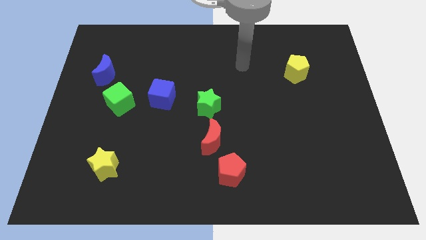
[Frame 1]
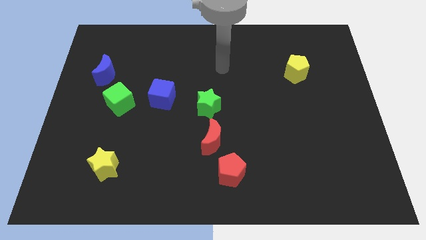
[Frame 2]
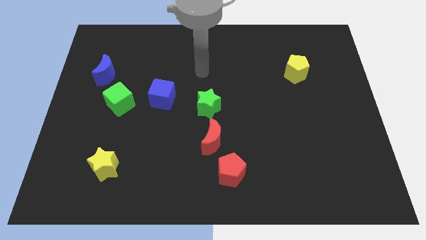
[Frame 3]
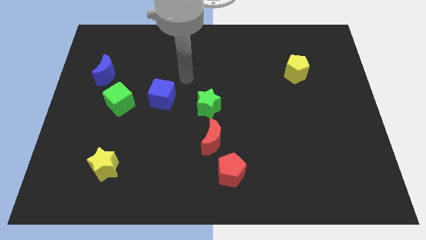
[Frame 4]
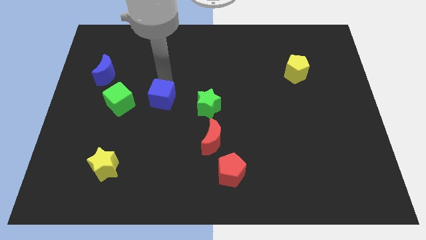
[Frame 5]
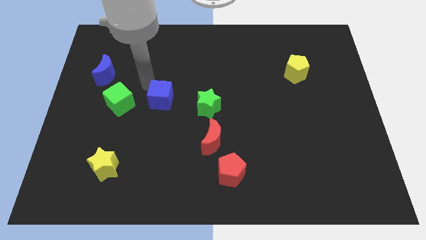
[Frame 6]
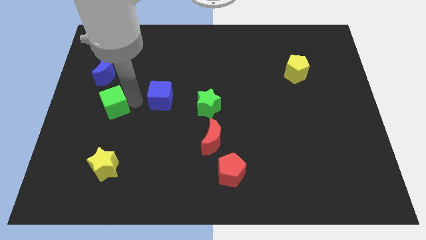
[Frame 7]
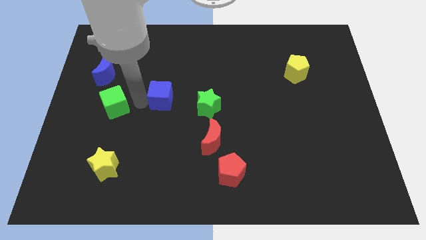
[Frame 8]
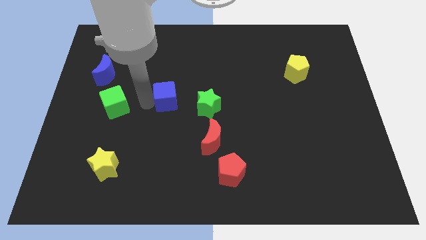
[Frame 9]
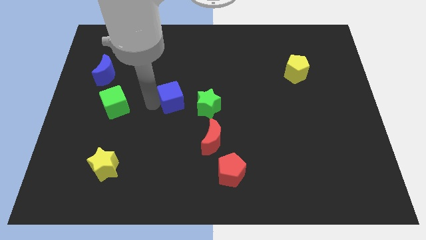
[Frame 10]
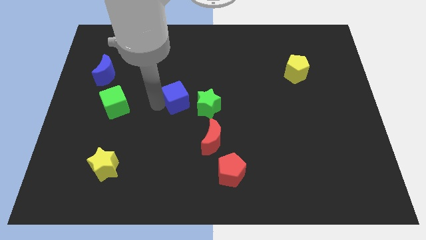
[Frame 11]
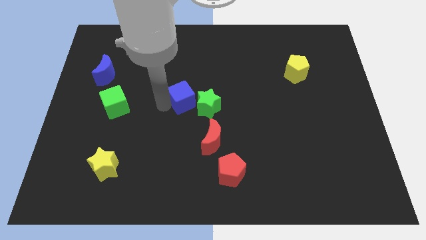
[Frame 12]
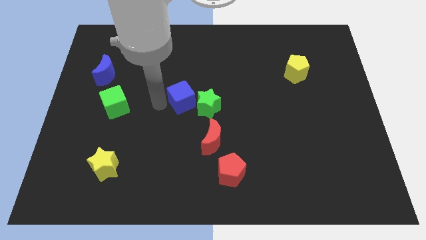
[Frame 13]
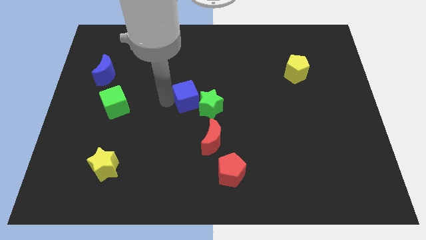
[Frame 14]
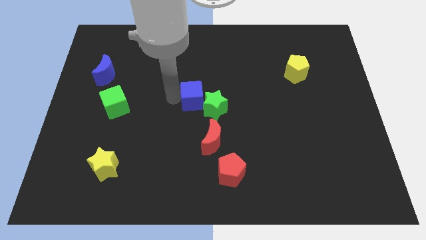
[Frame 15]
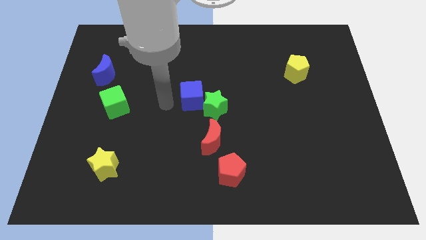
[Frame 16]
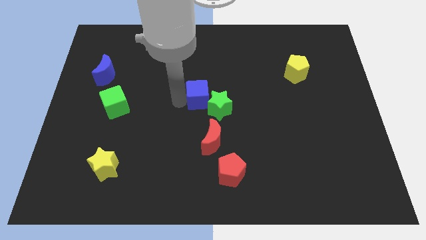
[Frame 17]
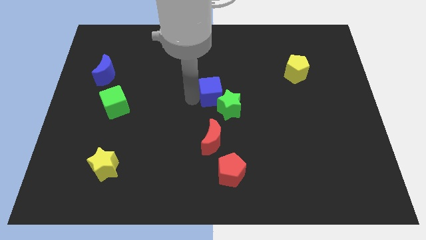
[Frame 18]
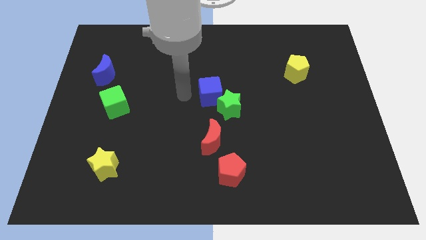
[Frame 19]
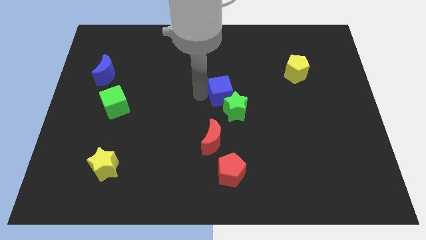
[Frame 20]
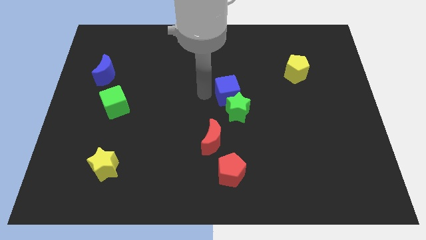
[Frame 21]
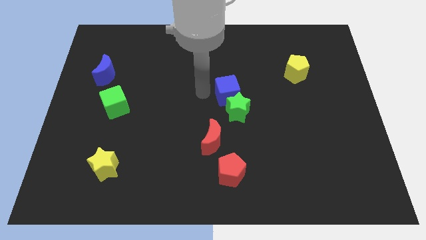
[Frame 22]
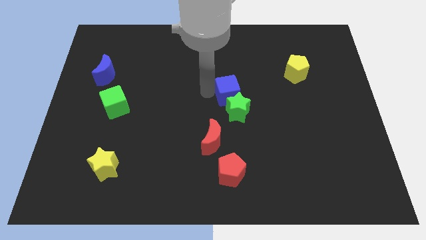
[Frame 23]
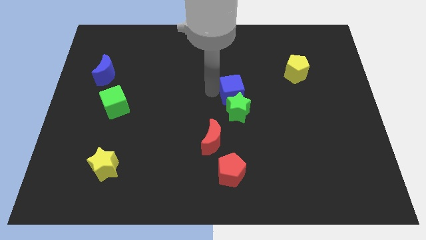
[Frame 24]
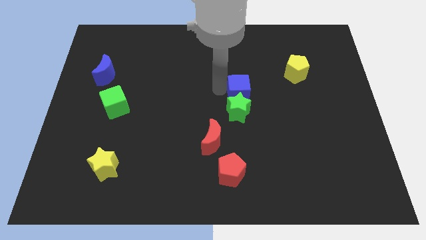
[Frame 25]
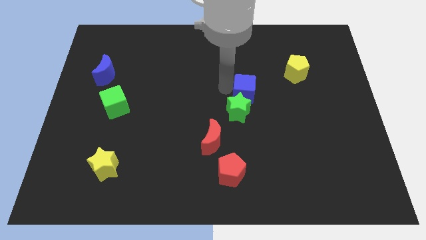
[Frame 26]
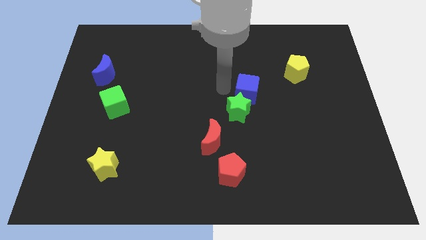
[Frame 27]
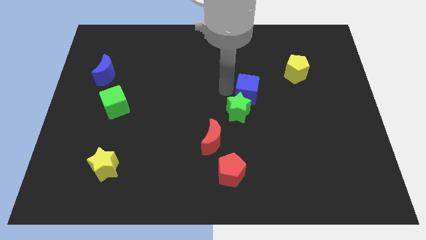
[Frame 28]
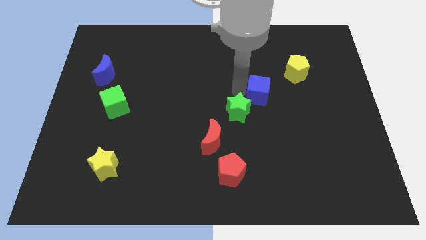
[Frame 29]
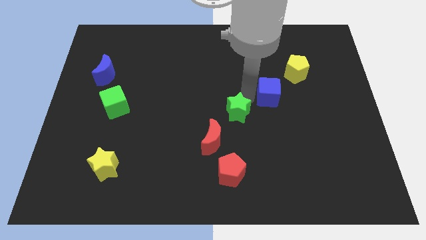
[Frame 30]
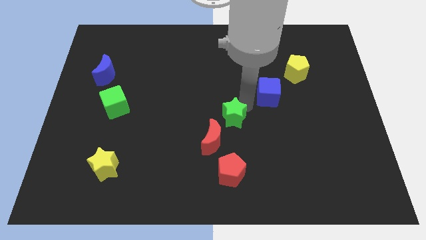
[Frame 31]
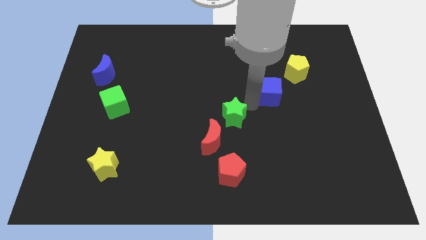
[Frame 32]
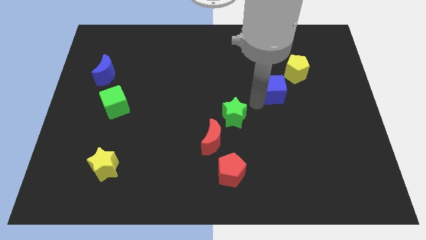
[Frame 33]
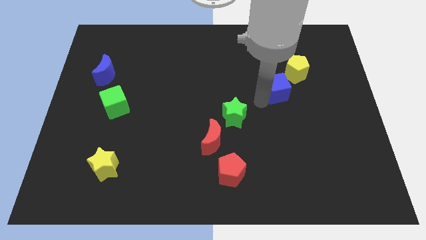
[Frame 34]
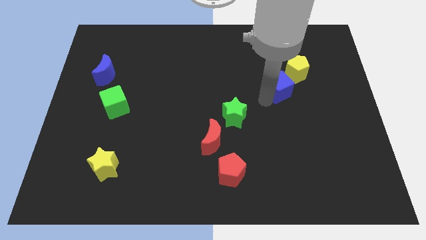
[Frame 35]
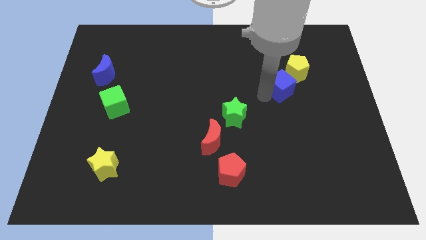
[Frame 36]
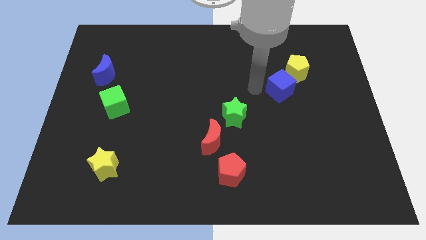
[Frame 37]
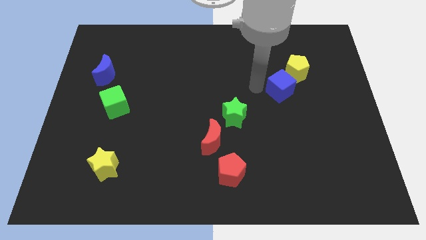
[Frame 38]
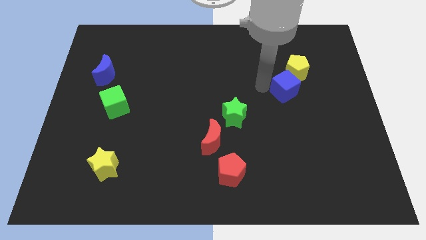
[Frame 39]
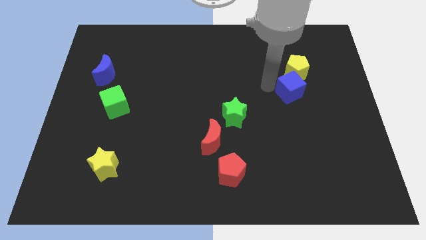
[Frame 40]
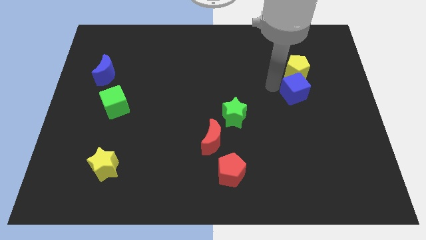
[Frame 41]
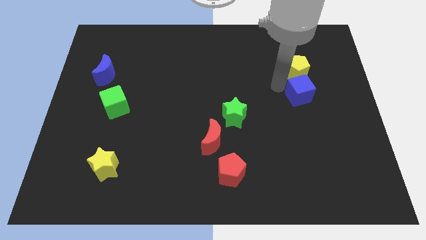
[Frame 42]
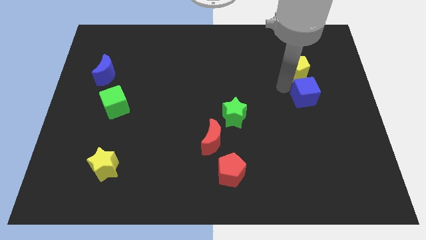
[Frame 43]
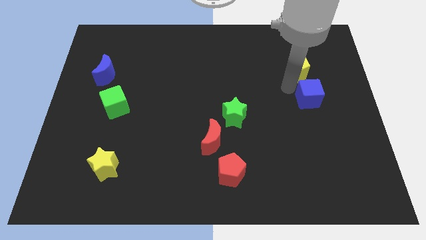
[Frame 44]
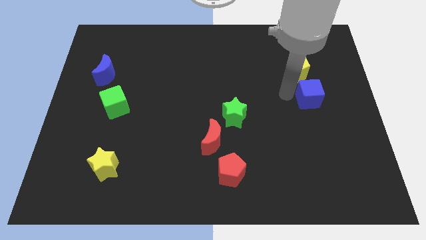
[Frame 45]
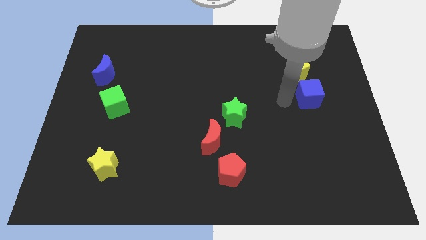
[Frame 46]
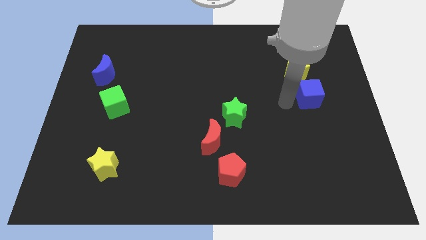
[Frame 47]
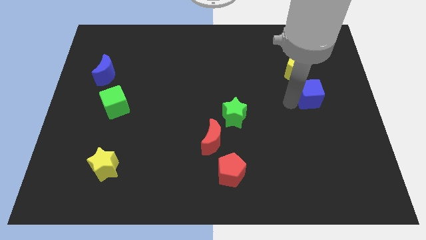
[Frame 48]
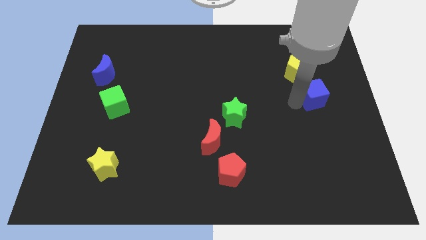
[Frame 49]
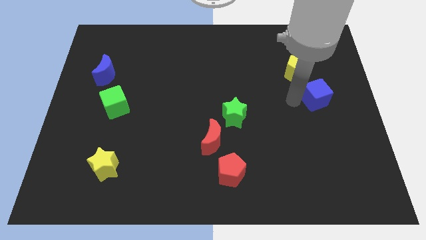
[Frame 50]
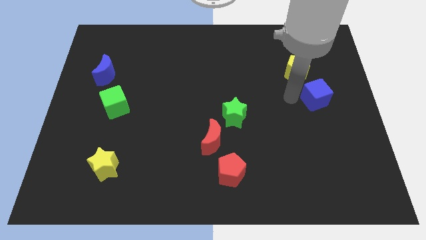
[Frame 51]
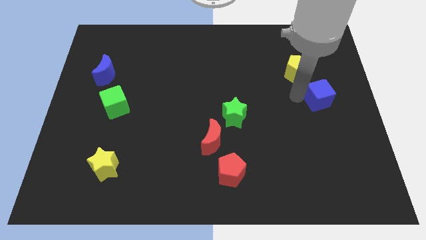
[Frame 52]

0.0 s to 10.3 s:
push the blue cube to the center right

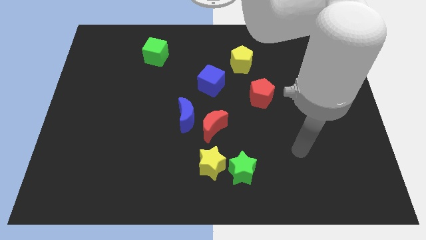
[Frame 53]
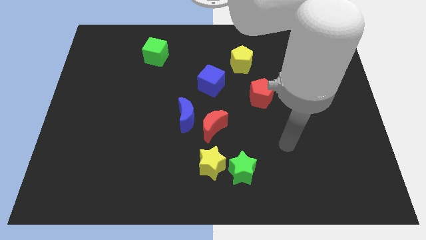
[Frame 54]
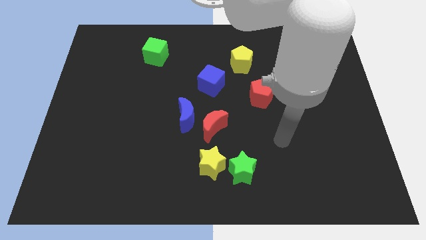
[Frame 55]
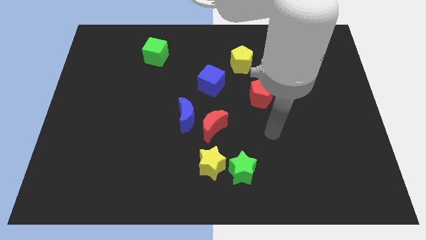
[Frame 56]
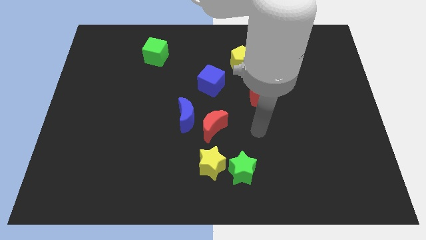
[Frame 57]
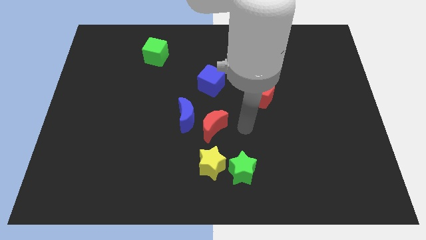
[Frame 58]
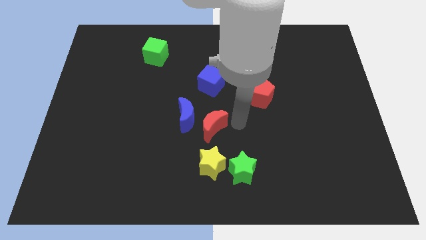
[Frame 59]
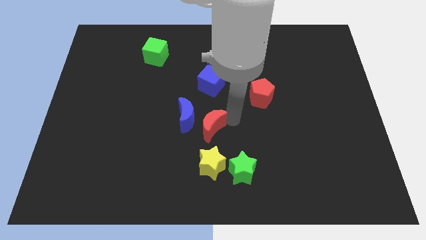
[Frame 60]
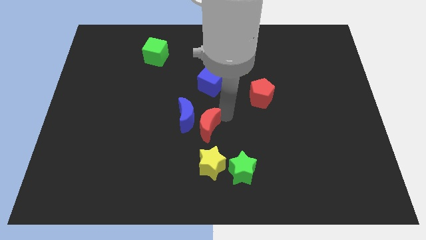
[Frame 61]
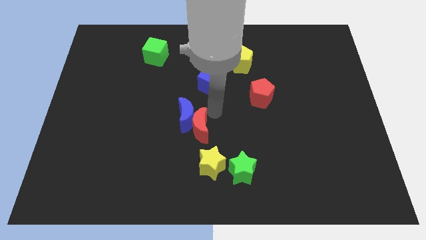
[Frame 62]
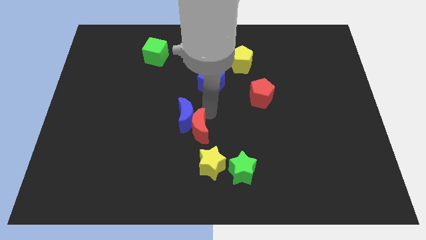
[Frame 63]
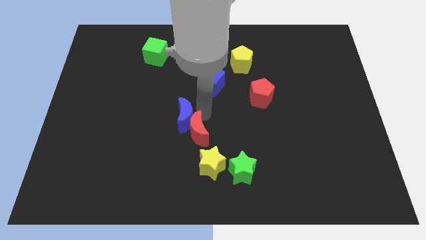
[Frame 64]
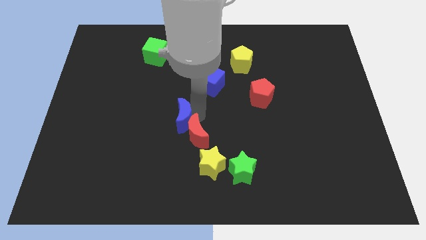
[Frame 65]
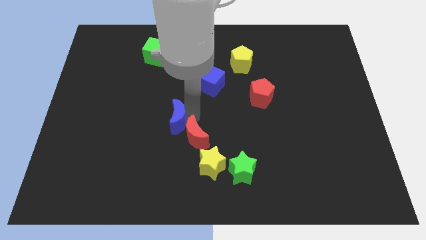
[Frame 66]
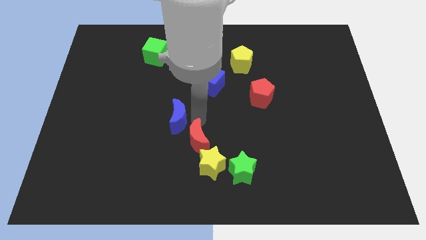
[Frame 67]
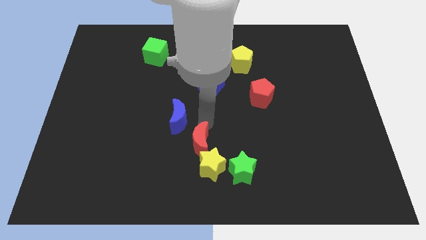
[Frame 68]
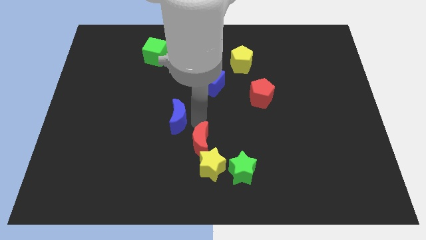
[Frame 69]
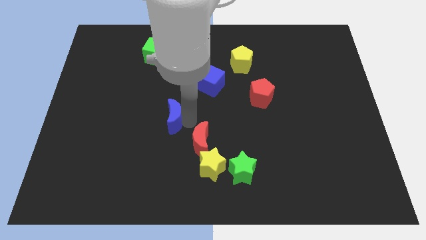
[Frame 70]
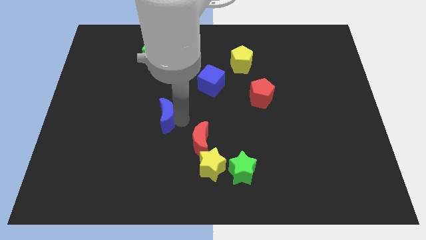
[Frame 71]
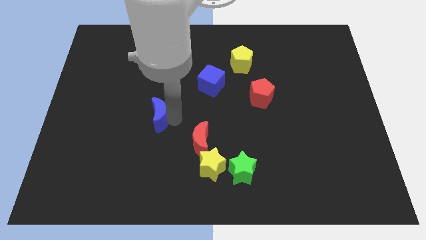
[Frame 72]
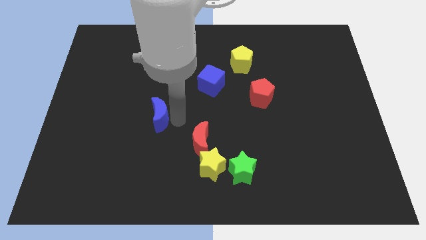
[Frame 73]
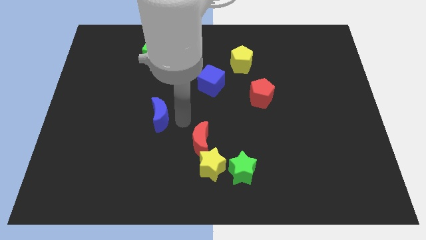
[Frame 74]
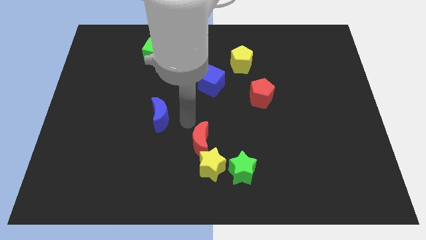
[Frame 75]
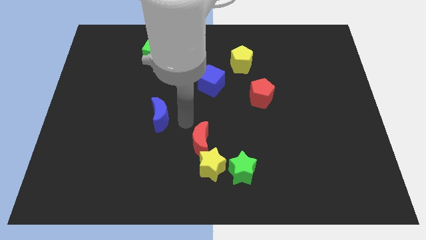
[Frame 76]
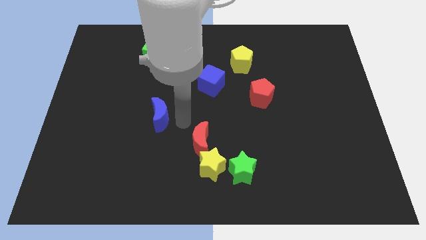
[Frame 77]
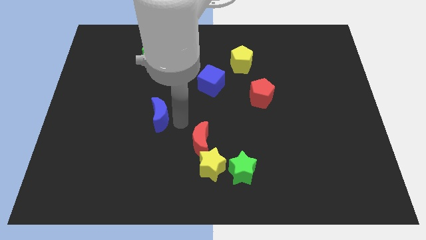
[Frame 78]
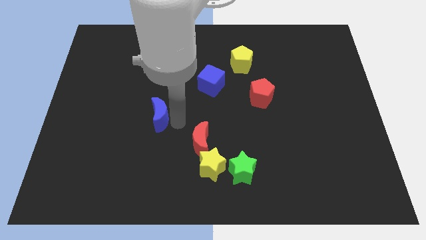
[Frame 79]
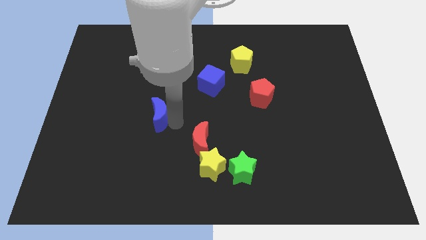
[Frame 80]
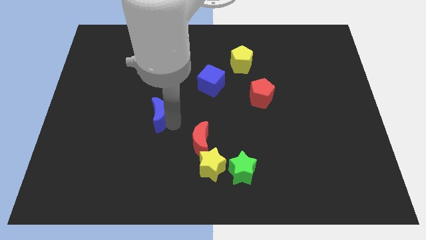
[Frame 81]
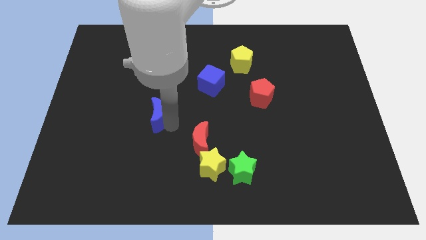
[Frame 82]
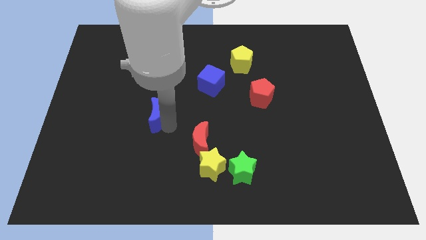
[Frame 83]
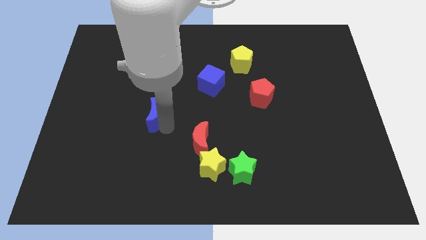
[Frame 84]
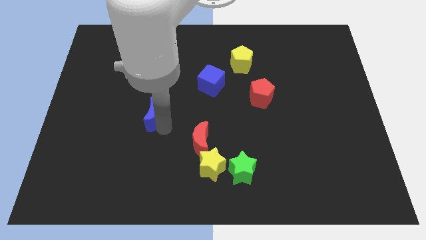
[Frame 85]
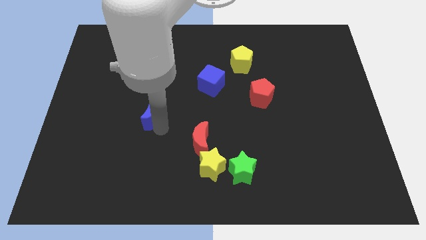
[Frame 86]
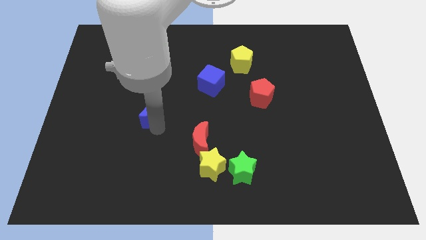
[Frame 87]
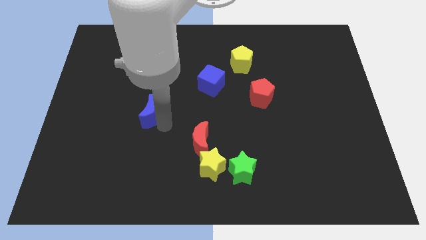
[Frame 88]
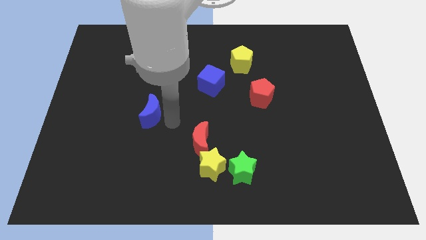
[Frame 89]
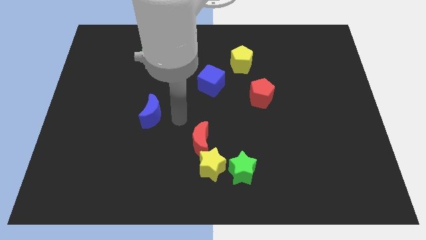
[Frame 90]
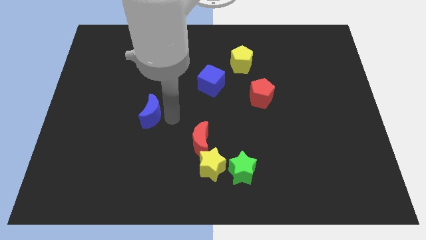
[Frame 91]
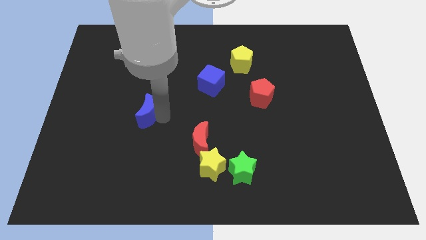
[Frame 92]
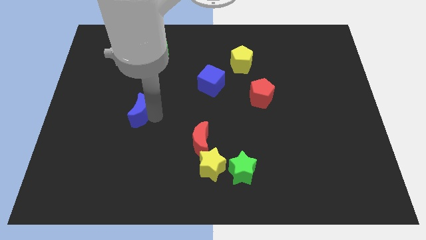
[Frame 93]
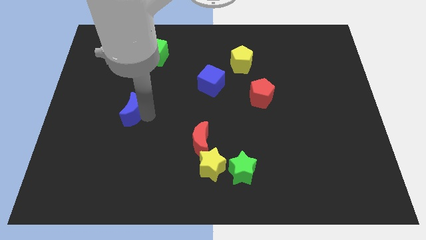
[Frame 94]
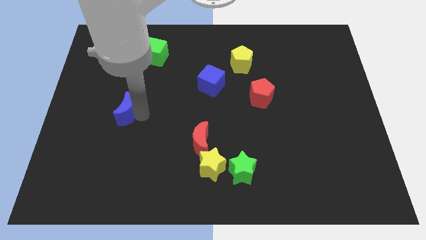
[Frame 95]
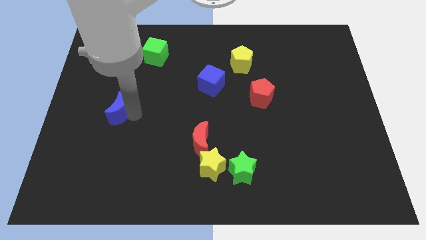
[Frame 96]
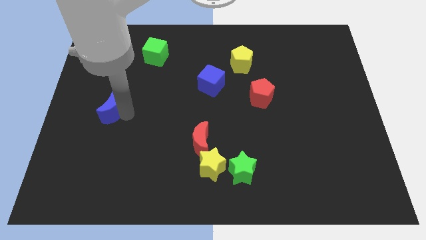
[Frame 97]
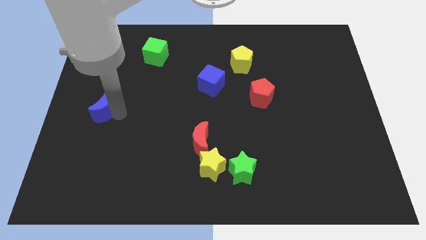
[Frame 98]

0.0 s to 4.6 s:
push the blue moon to the left side of the board
